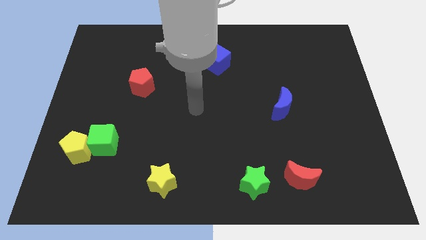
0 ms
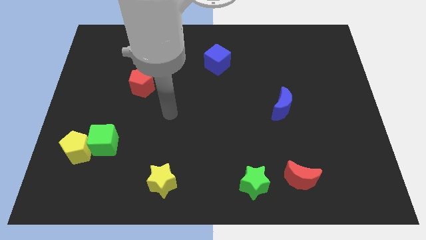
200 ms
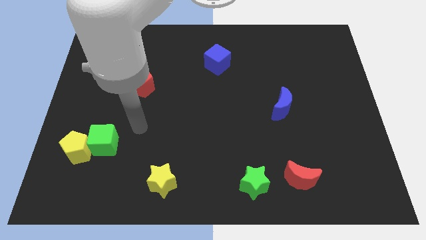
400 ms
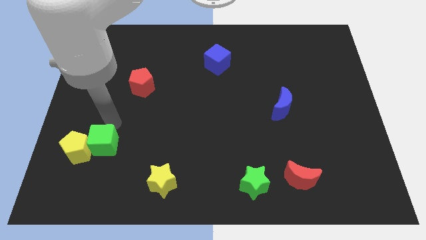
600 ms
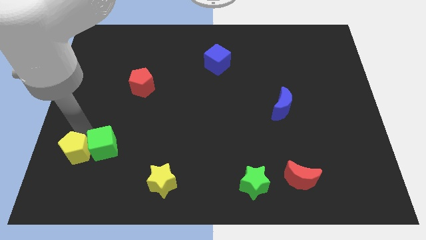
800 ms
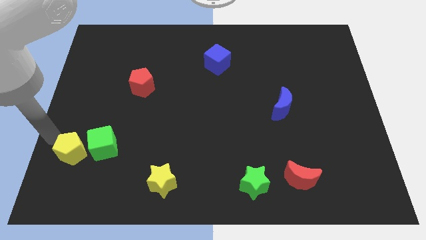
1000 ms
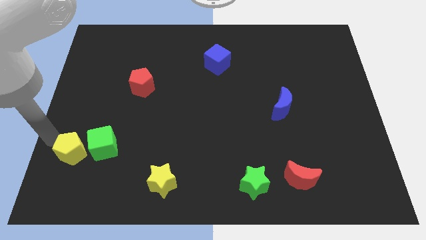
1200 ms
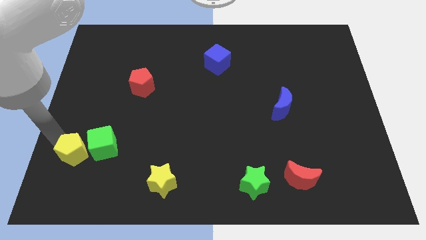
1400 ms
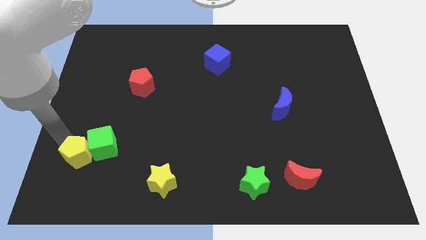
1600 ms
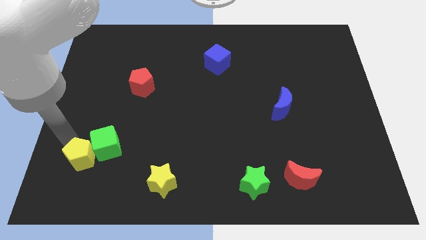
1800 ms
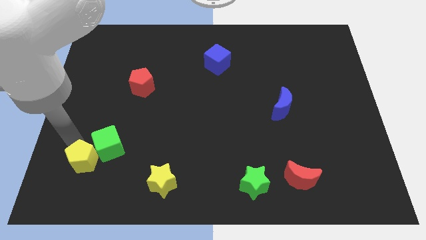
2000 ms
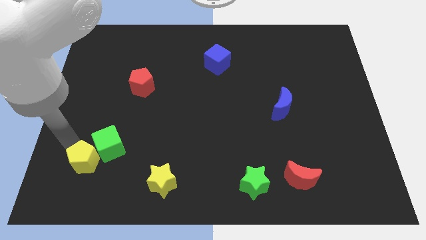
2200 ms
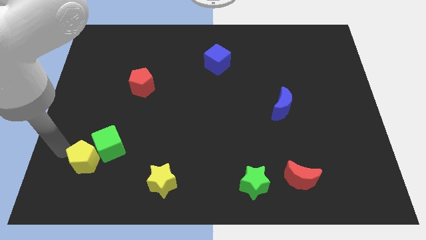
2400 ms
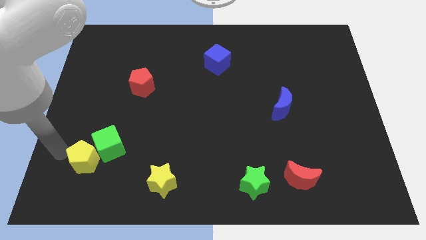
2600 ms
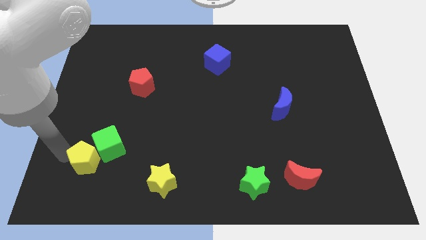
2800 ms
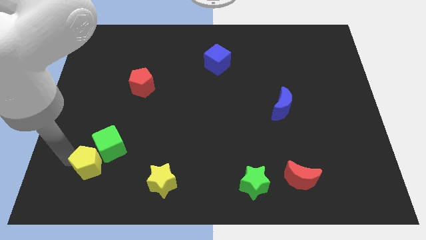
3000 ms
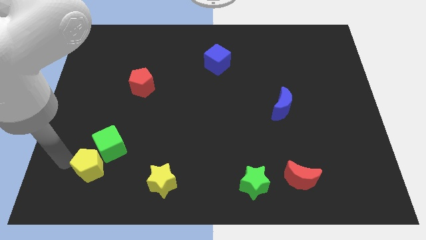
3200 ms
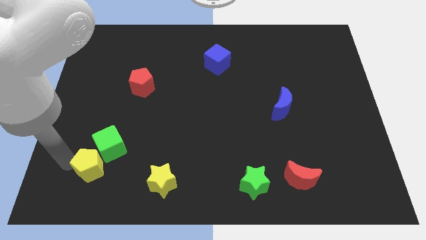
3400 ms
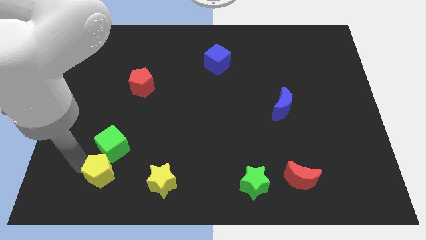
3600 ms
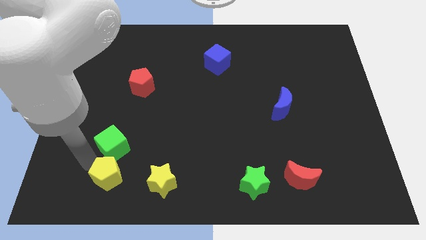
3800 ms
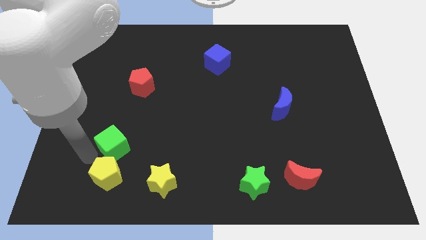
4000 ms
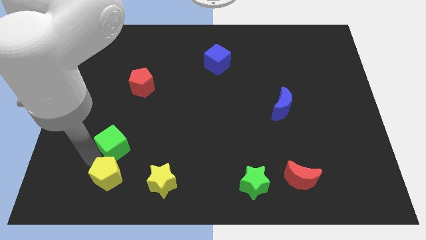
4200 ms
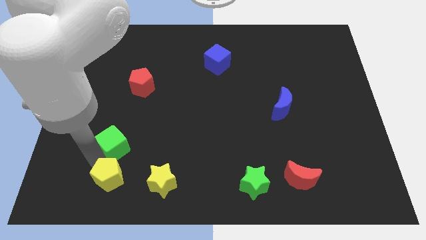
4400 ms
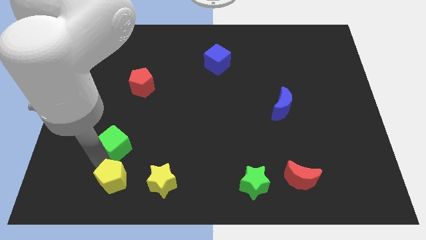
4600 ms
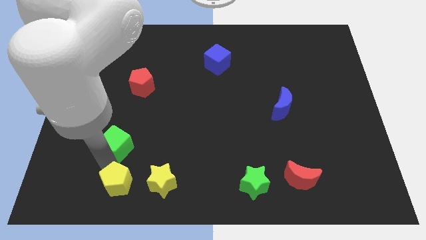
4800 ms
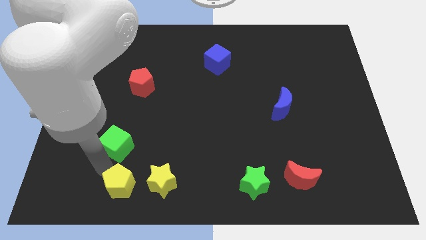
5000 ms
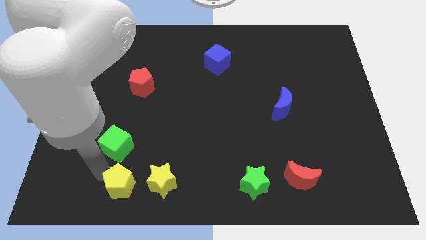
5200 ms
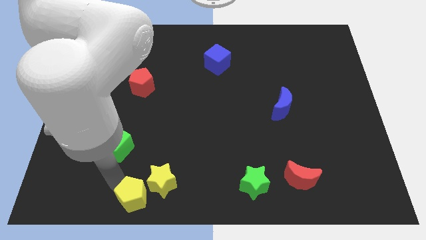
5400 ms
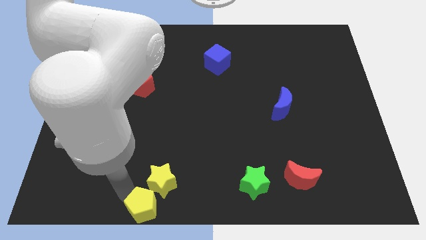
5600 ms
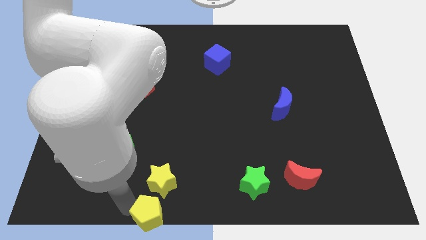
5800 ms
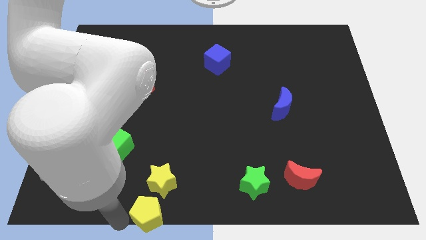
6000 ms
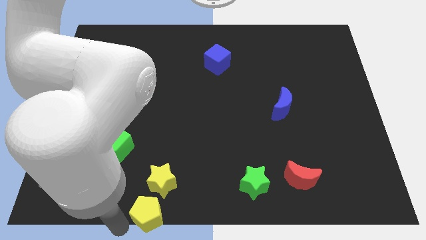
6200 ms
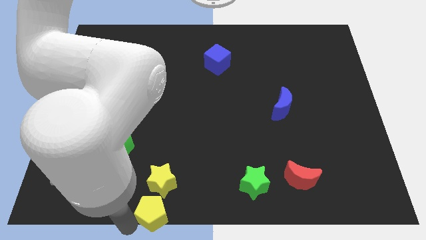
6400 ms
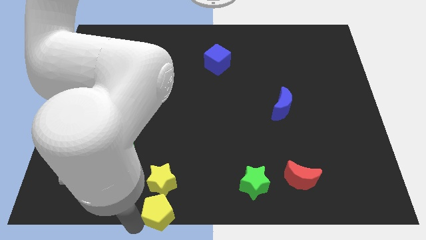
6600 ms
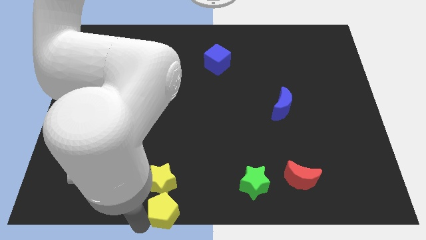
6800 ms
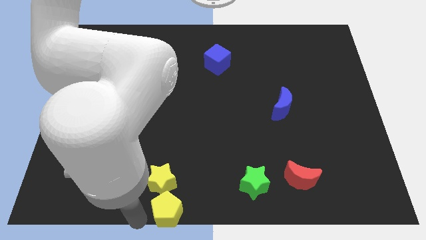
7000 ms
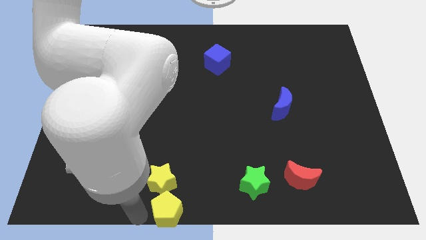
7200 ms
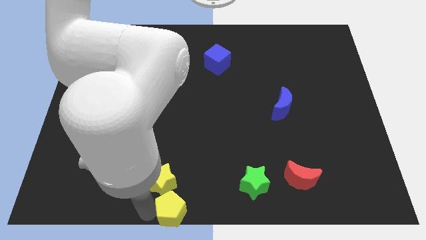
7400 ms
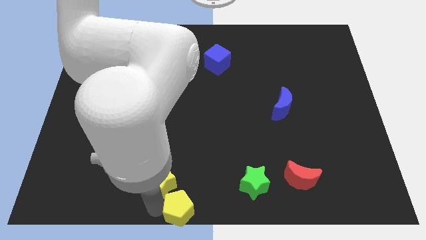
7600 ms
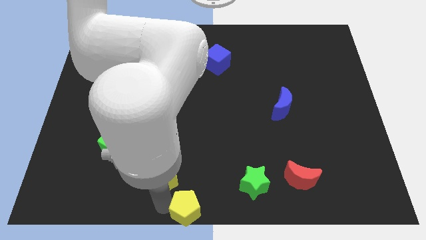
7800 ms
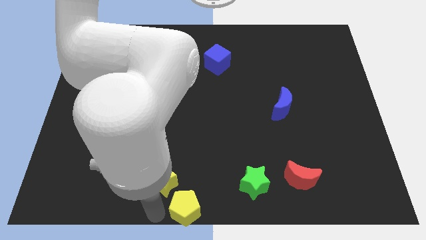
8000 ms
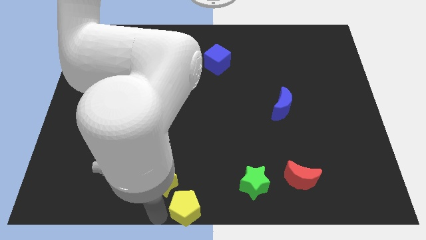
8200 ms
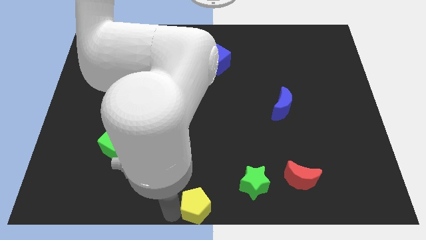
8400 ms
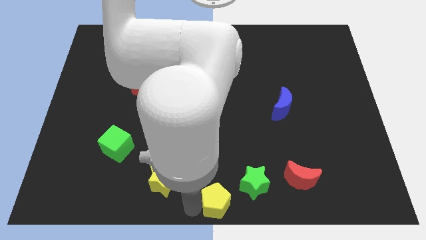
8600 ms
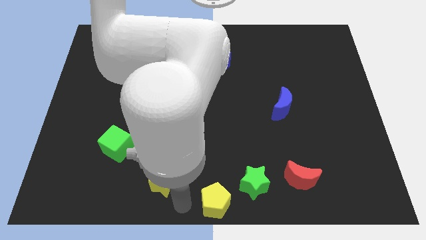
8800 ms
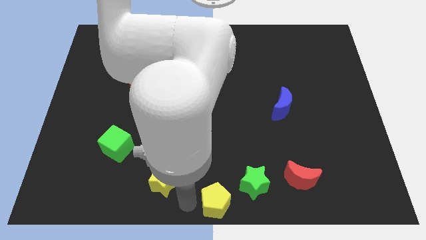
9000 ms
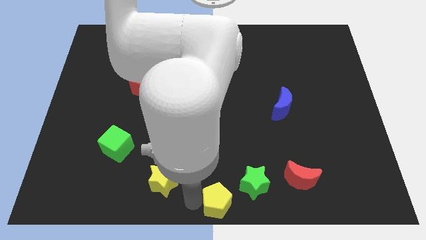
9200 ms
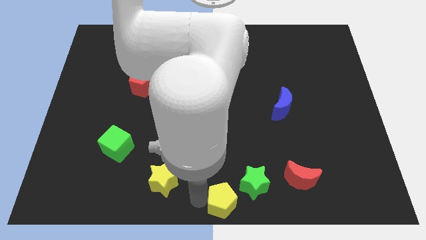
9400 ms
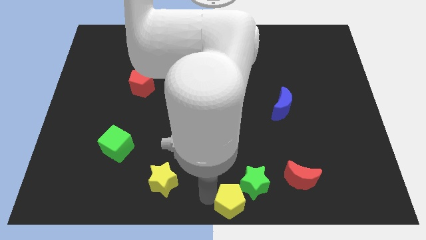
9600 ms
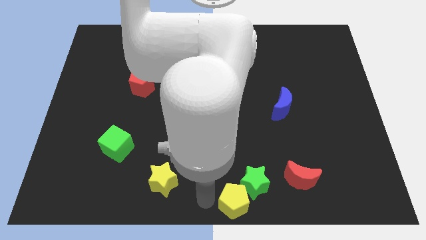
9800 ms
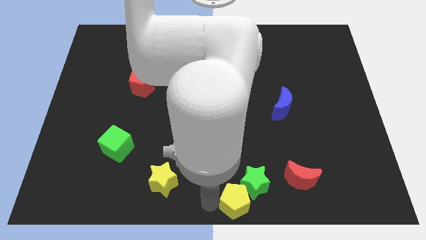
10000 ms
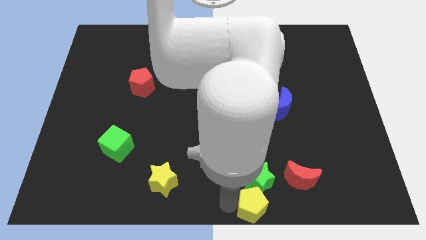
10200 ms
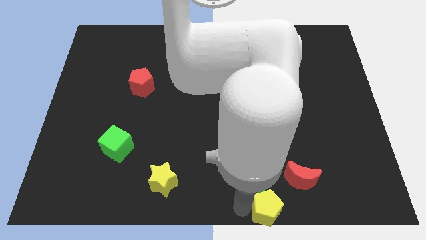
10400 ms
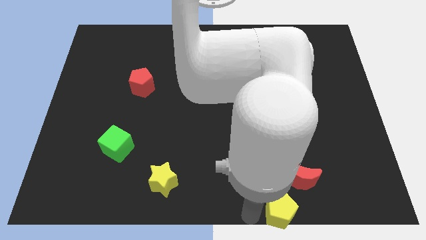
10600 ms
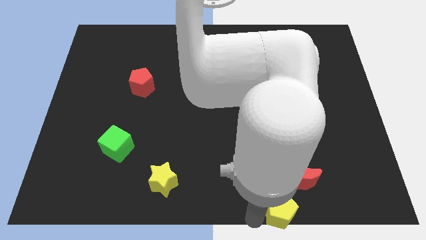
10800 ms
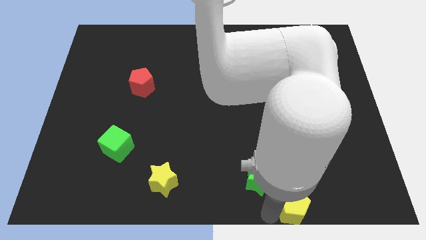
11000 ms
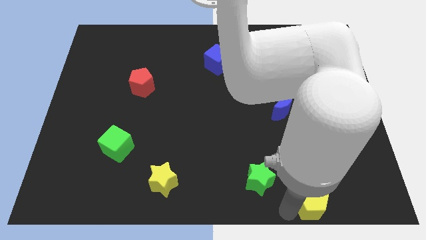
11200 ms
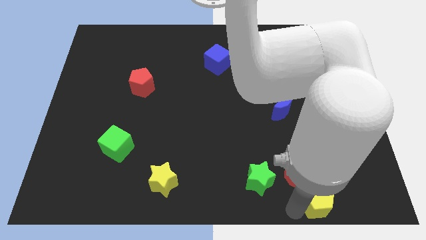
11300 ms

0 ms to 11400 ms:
move the yellow pentagon right of the green star

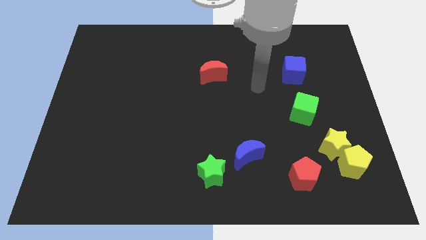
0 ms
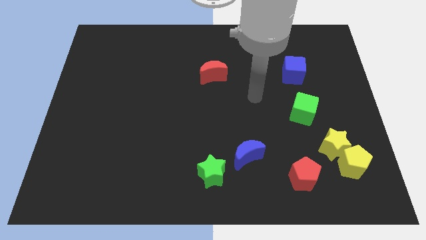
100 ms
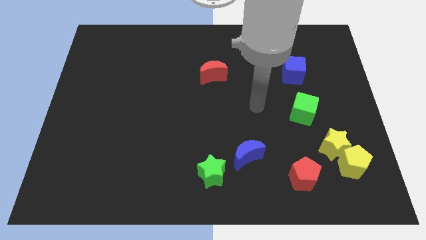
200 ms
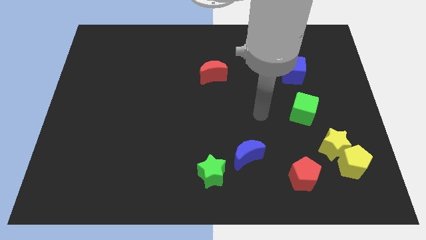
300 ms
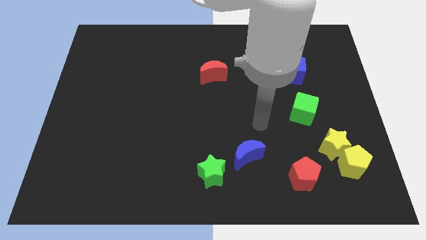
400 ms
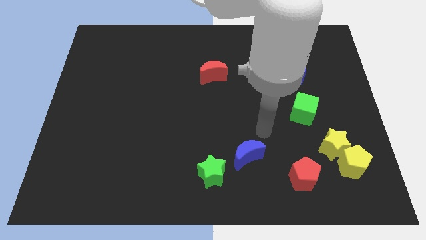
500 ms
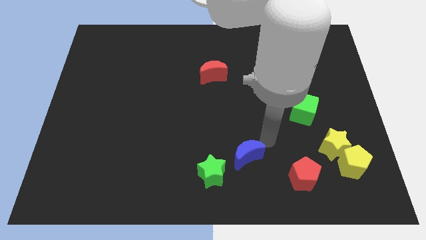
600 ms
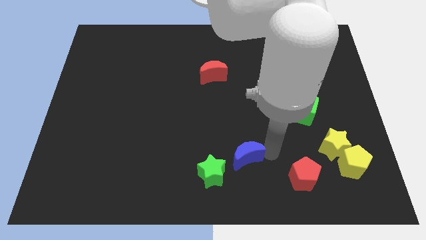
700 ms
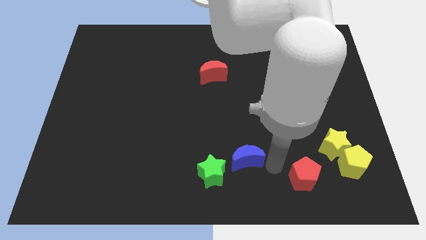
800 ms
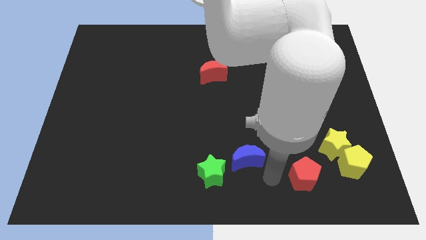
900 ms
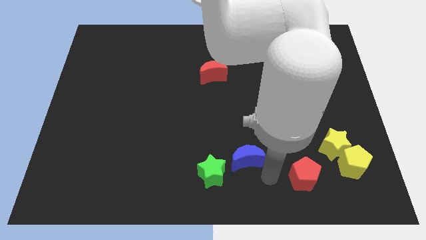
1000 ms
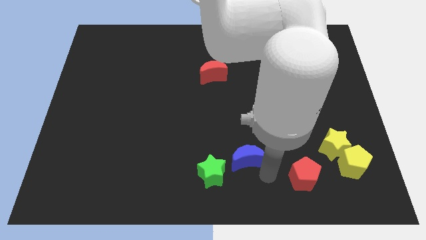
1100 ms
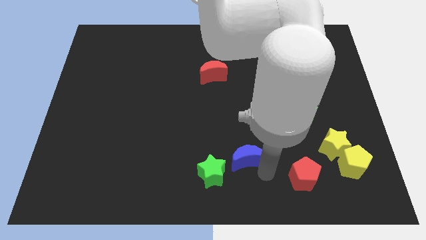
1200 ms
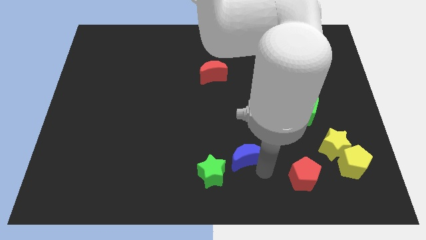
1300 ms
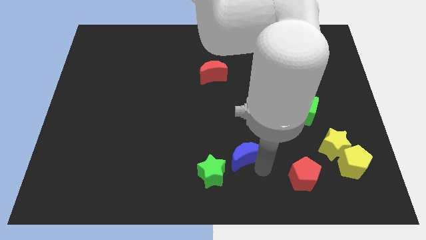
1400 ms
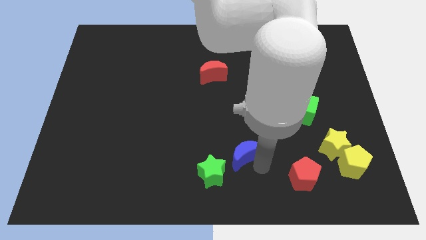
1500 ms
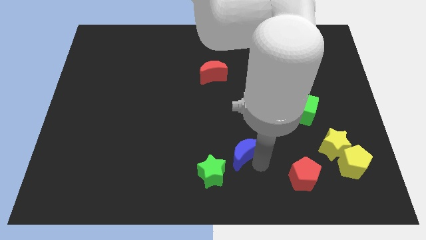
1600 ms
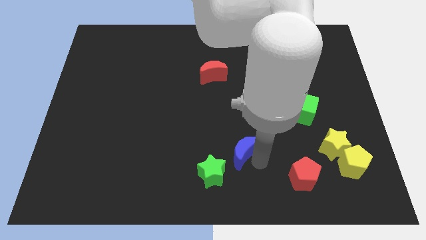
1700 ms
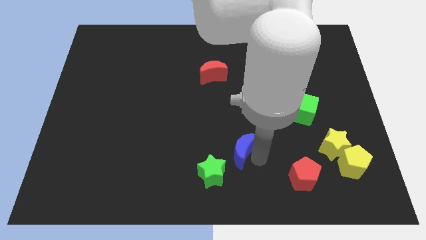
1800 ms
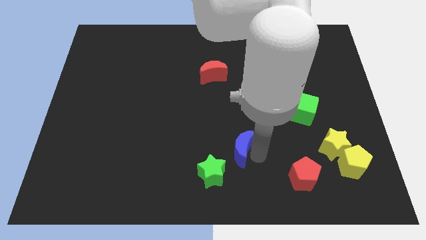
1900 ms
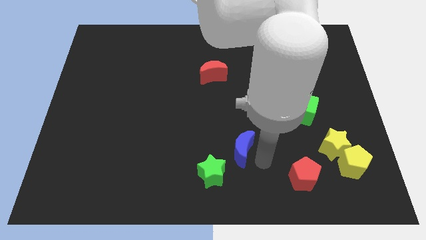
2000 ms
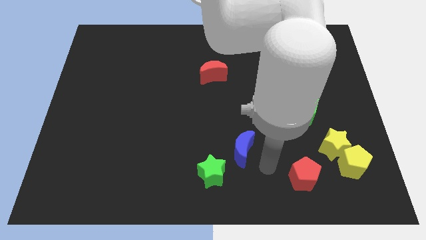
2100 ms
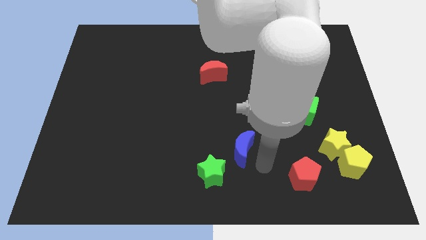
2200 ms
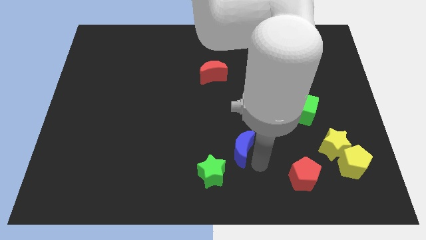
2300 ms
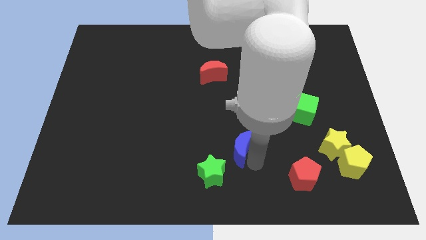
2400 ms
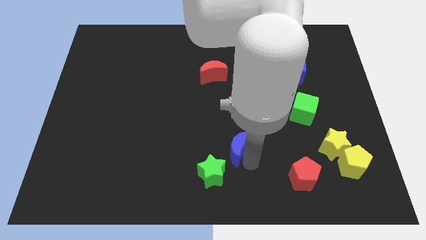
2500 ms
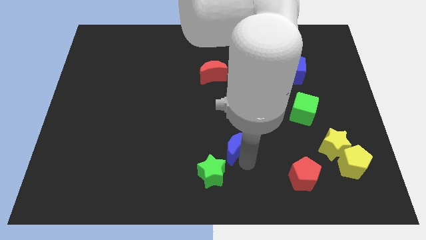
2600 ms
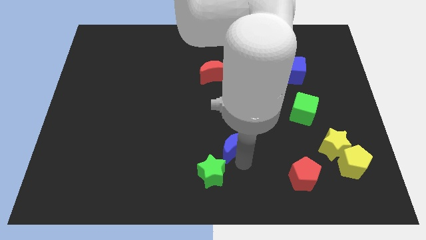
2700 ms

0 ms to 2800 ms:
push the blue moon to the top of the green star
